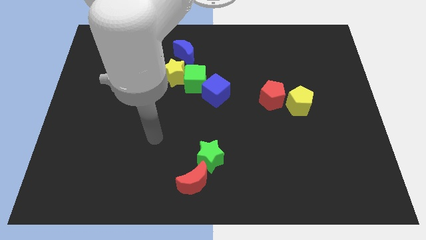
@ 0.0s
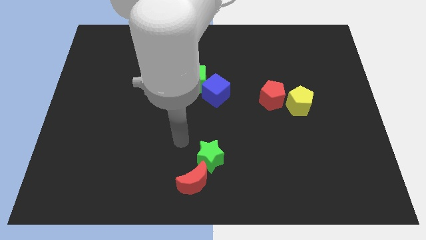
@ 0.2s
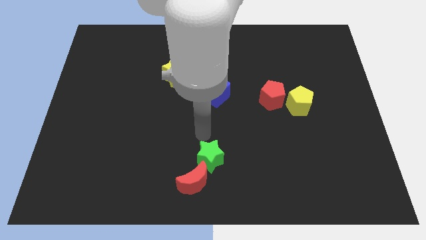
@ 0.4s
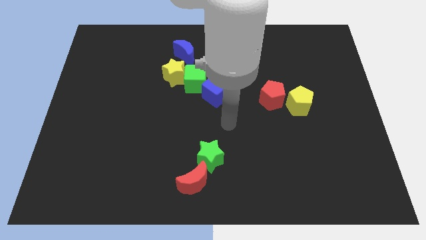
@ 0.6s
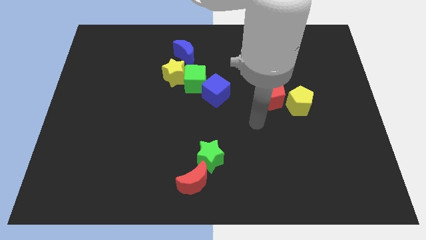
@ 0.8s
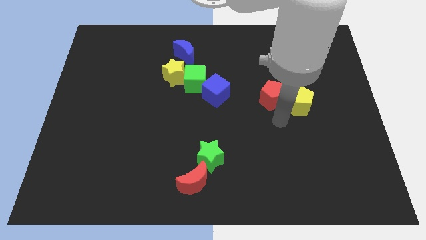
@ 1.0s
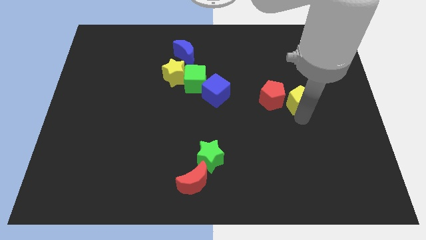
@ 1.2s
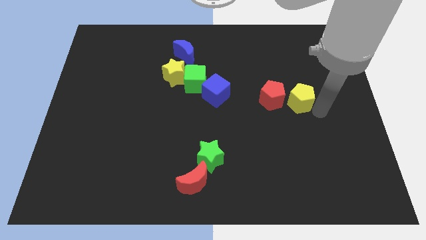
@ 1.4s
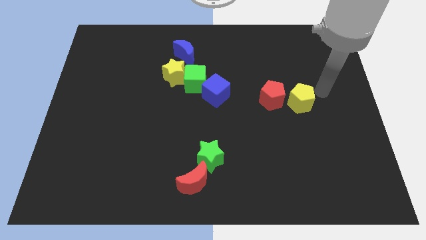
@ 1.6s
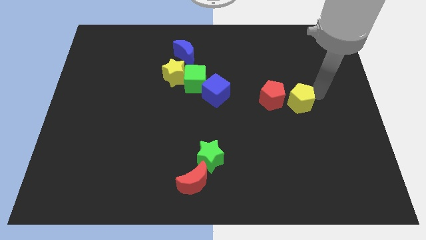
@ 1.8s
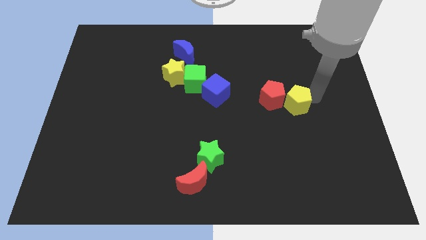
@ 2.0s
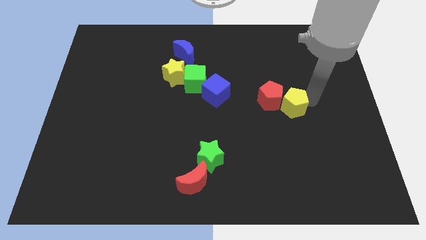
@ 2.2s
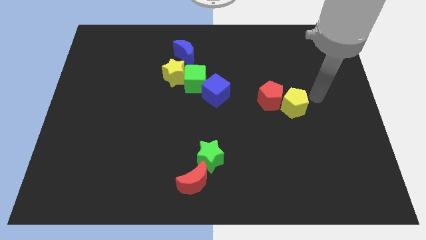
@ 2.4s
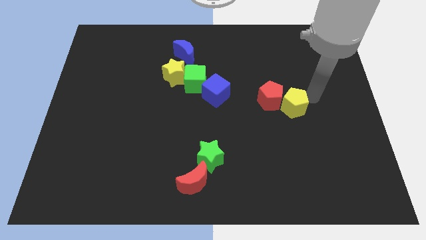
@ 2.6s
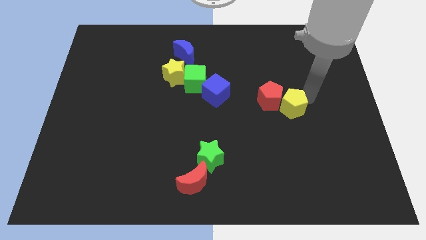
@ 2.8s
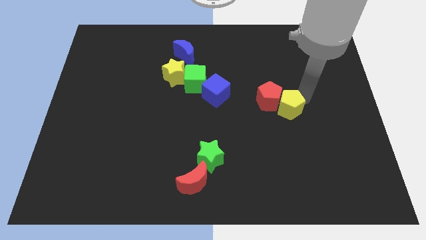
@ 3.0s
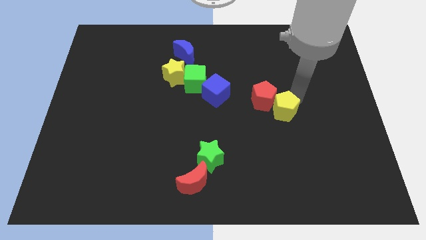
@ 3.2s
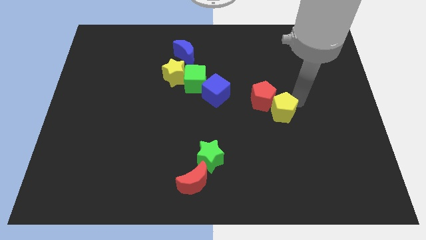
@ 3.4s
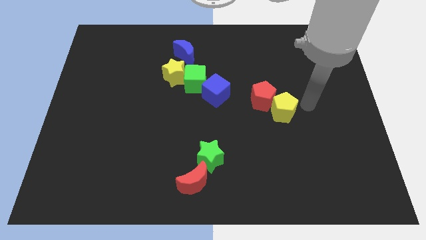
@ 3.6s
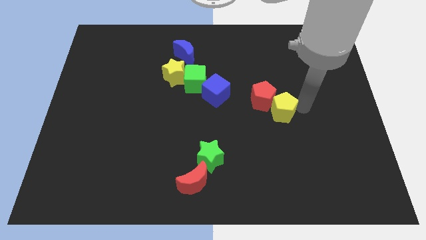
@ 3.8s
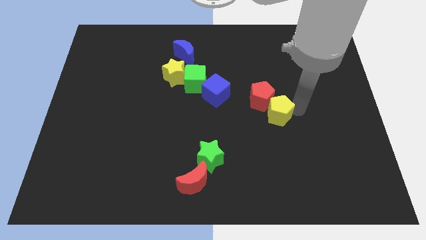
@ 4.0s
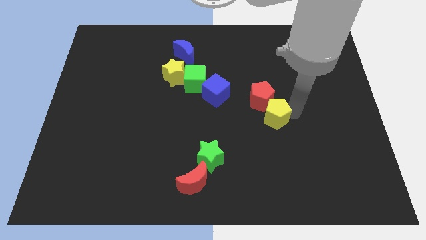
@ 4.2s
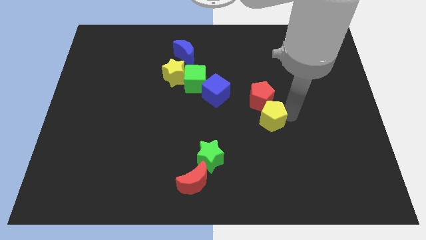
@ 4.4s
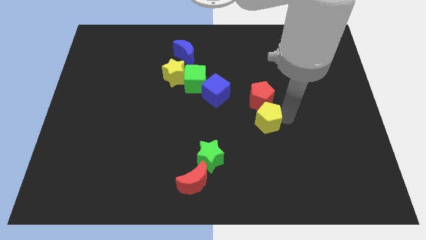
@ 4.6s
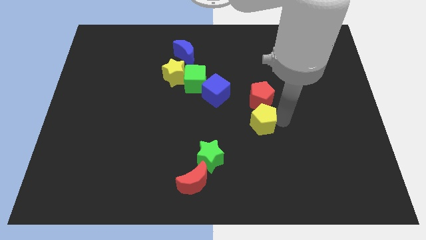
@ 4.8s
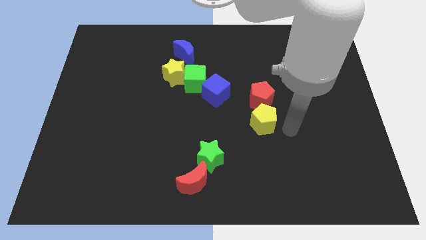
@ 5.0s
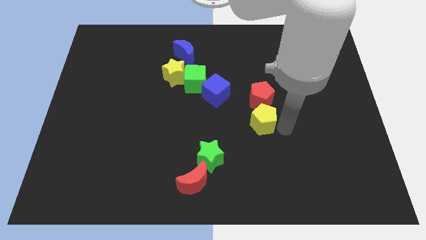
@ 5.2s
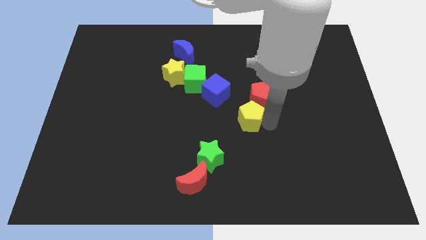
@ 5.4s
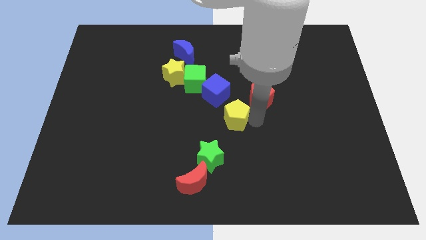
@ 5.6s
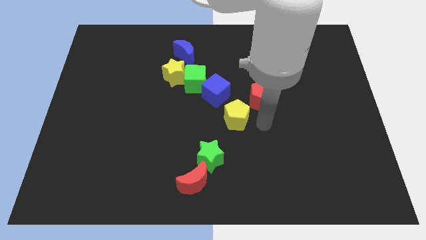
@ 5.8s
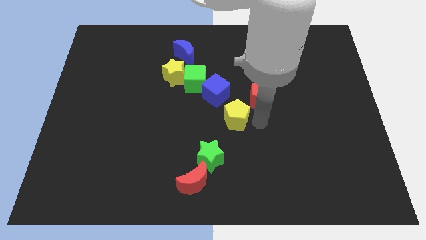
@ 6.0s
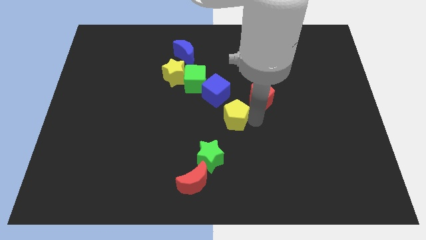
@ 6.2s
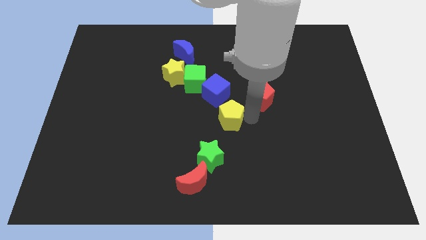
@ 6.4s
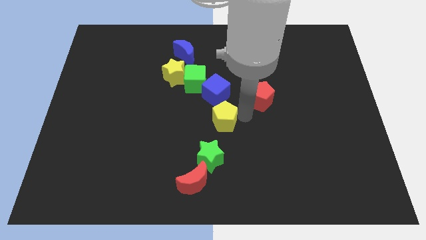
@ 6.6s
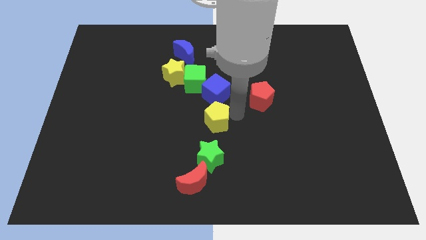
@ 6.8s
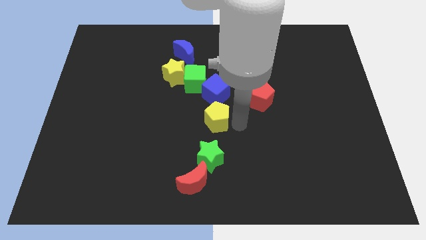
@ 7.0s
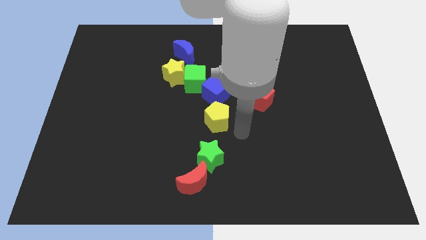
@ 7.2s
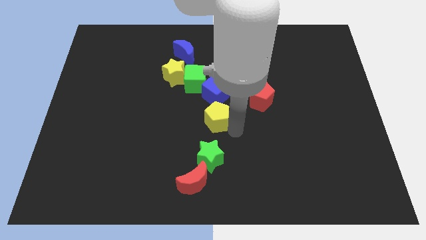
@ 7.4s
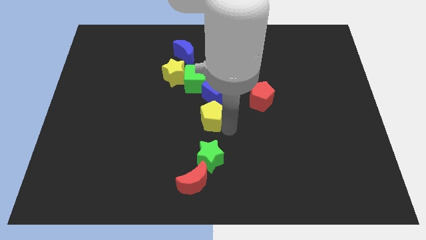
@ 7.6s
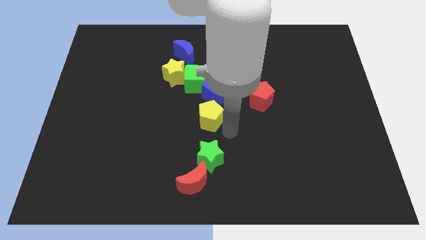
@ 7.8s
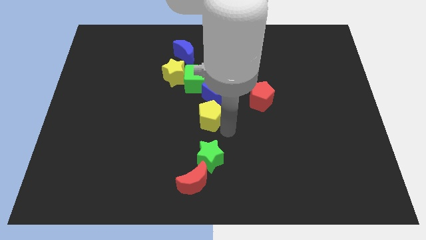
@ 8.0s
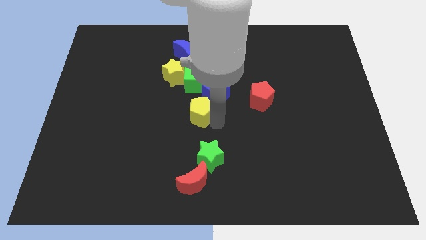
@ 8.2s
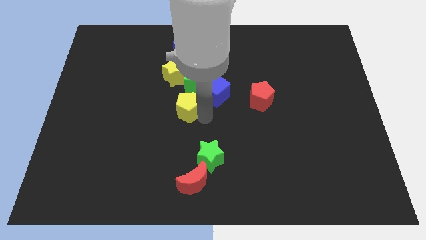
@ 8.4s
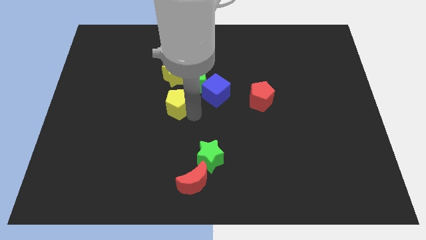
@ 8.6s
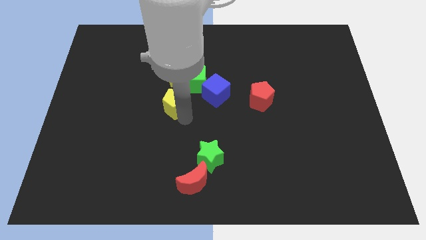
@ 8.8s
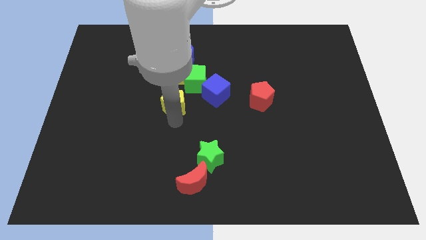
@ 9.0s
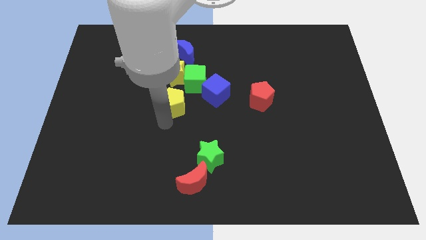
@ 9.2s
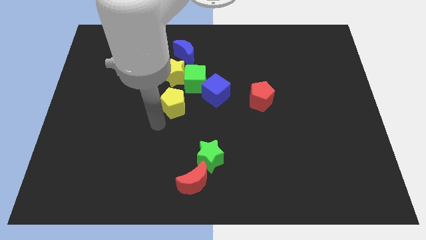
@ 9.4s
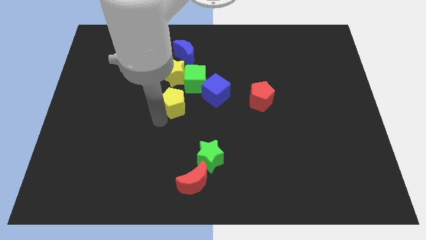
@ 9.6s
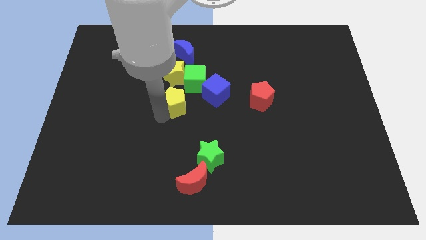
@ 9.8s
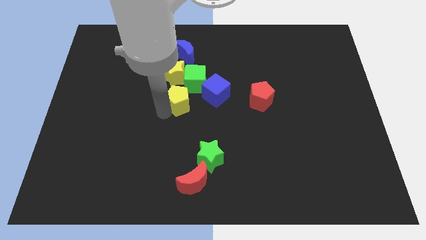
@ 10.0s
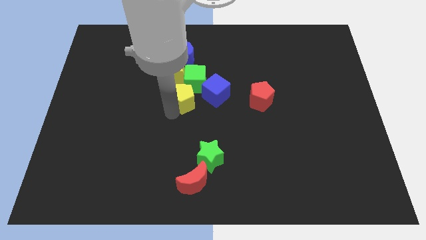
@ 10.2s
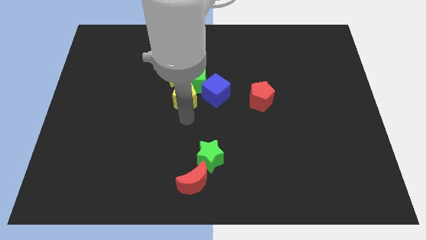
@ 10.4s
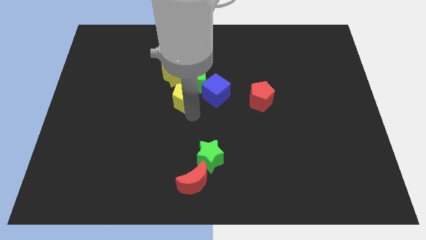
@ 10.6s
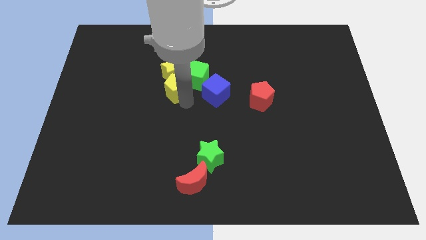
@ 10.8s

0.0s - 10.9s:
slide the yellow pentagon to the yellow star

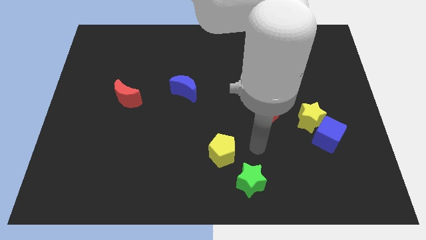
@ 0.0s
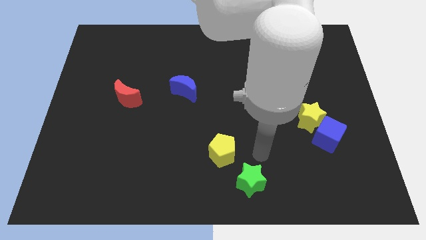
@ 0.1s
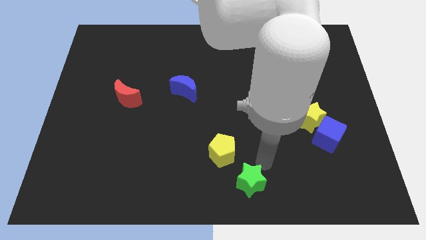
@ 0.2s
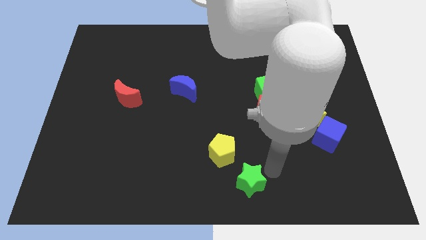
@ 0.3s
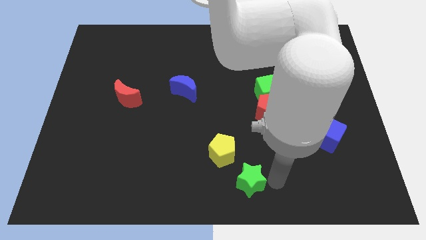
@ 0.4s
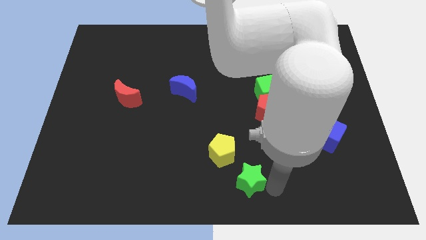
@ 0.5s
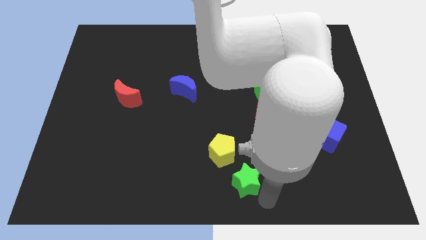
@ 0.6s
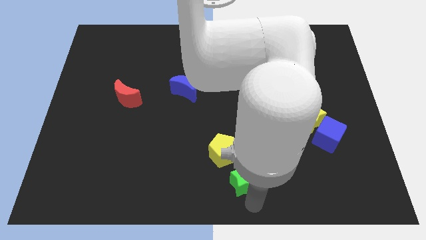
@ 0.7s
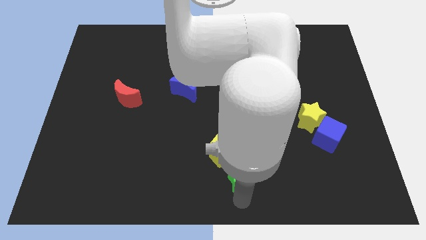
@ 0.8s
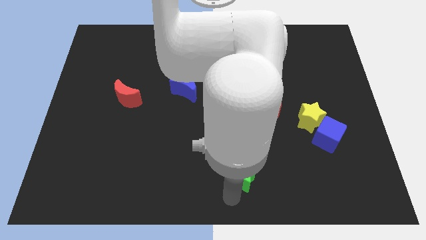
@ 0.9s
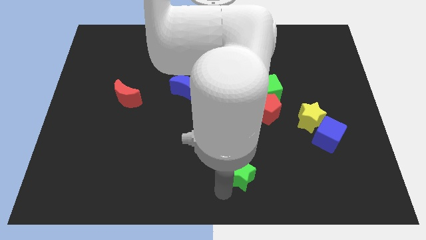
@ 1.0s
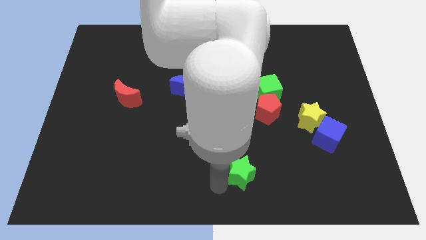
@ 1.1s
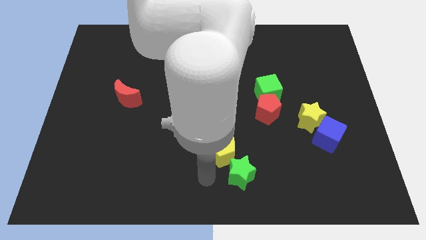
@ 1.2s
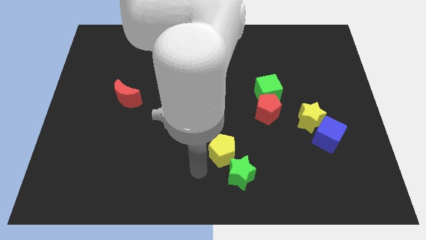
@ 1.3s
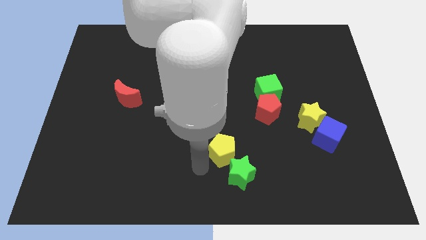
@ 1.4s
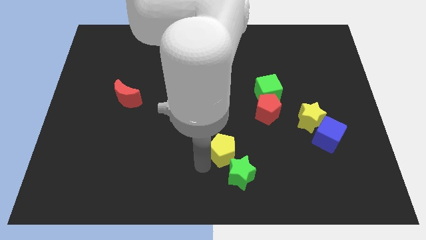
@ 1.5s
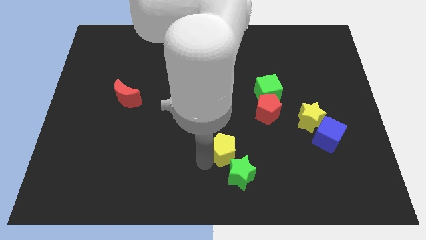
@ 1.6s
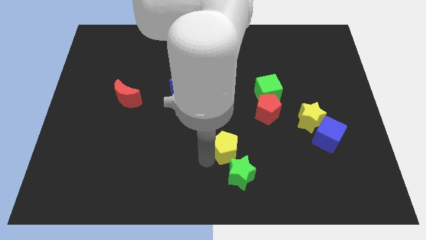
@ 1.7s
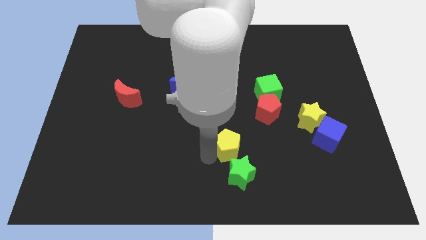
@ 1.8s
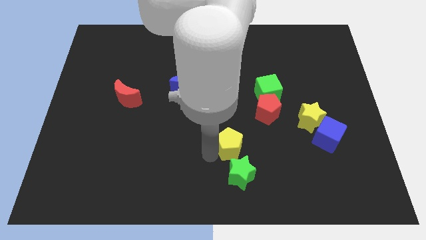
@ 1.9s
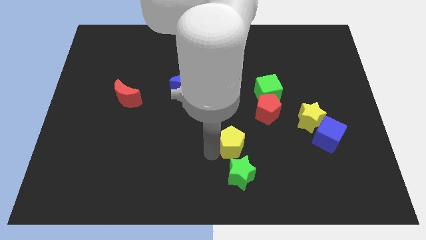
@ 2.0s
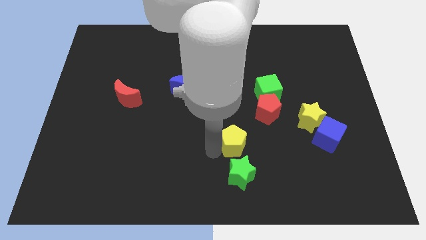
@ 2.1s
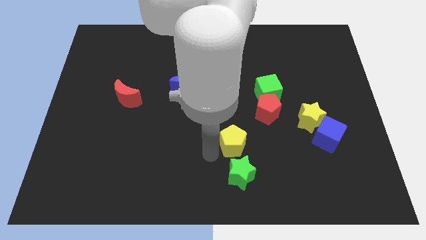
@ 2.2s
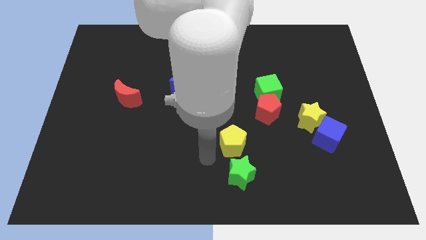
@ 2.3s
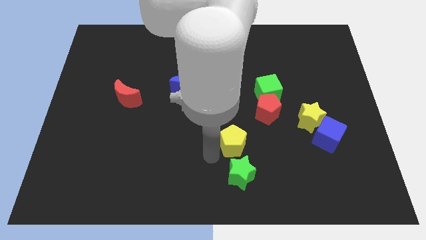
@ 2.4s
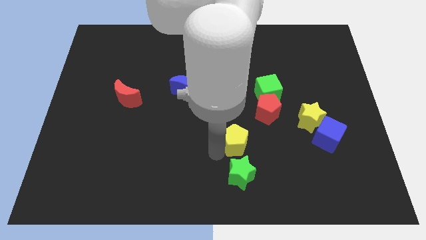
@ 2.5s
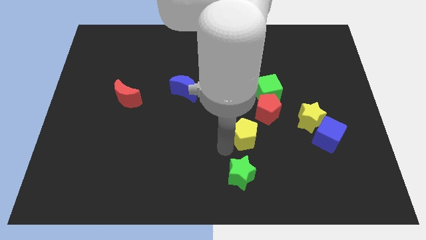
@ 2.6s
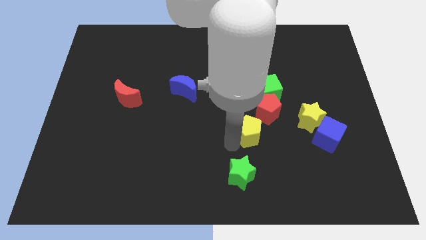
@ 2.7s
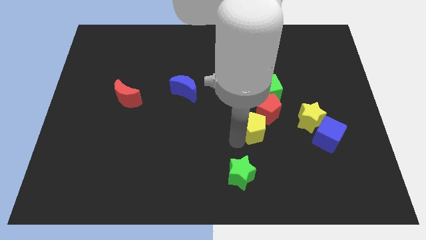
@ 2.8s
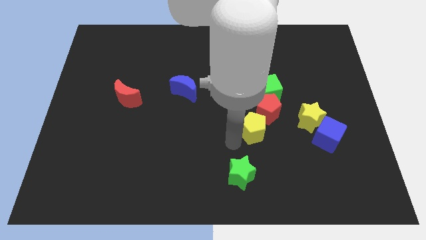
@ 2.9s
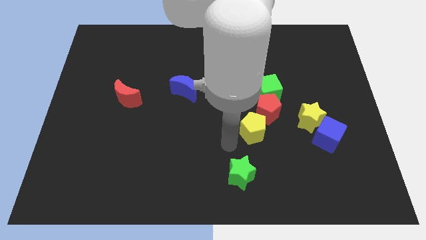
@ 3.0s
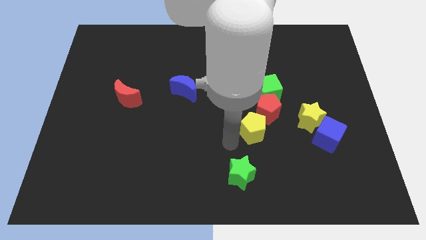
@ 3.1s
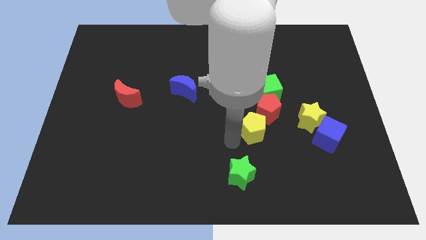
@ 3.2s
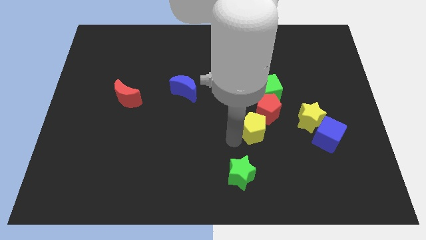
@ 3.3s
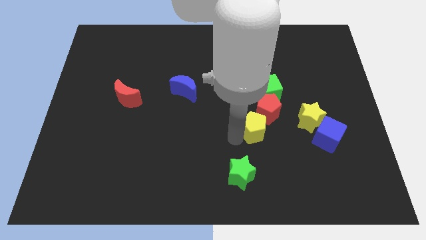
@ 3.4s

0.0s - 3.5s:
push the yellow pentagon close to the red pentagon
